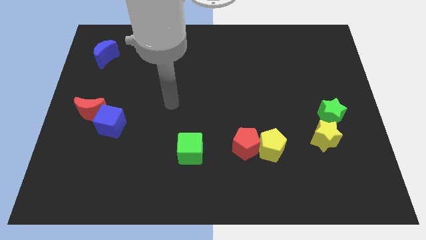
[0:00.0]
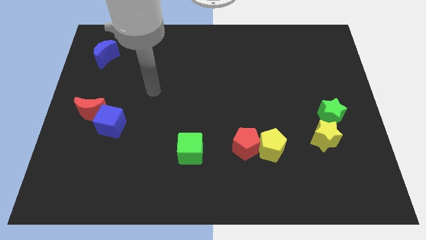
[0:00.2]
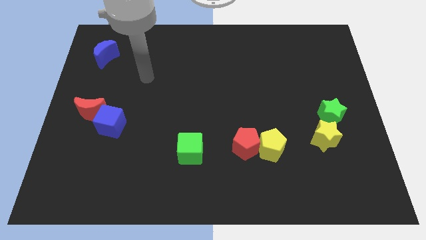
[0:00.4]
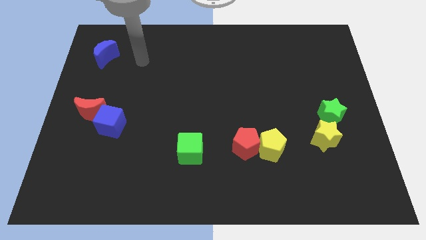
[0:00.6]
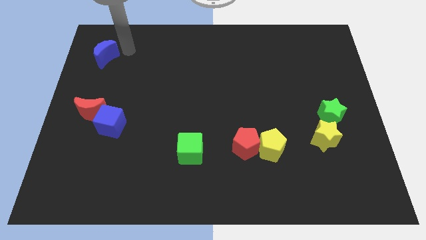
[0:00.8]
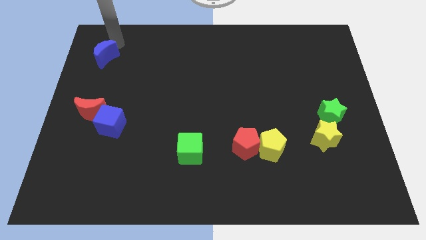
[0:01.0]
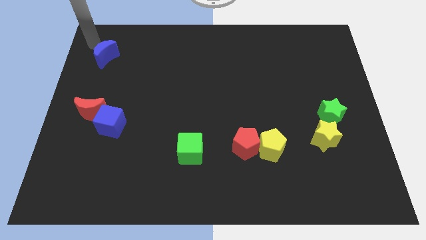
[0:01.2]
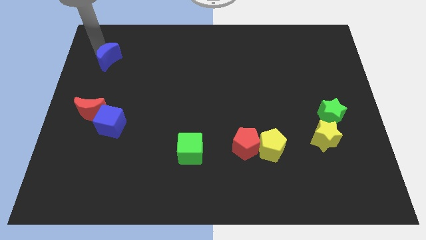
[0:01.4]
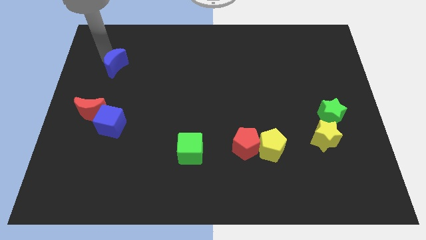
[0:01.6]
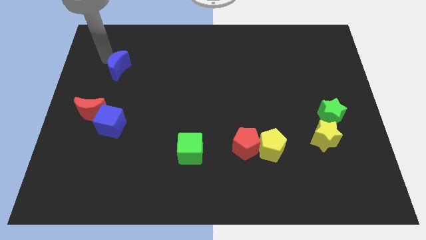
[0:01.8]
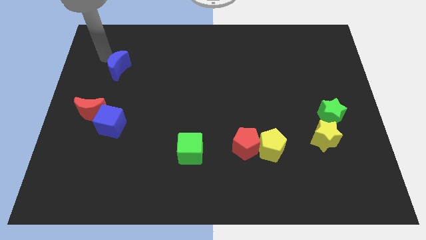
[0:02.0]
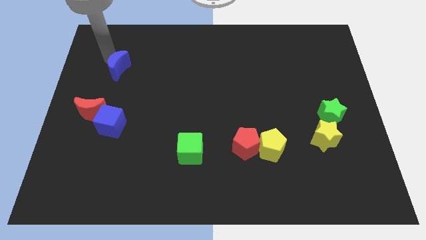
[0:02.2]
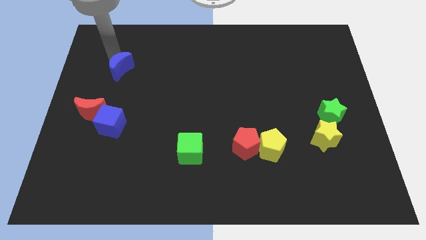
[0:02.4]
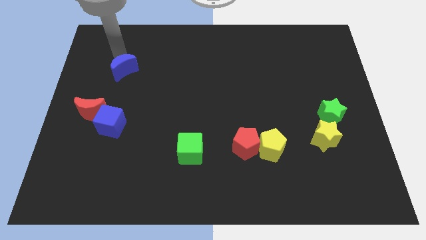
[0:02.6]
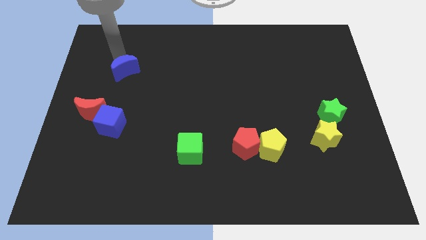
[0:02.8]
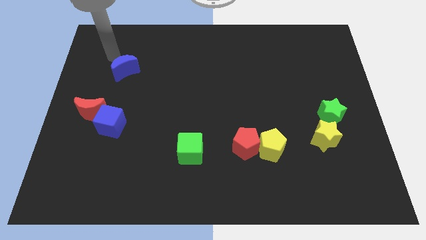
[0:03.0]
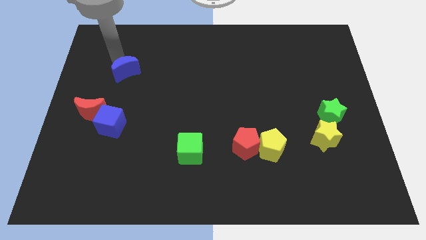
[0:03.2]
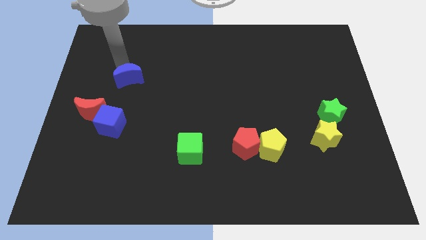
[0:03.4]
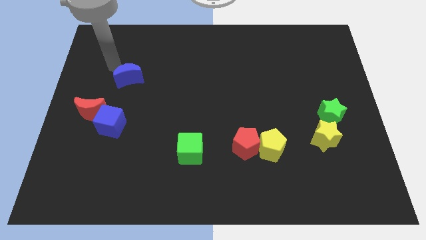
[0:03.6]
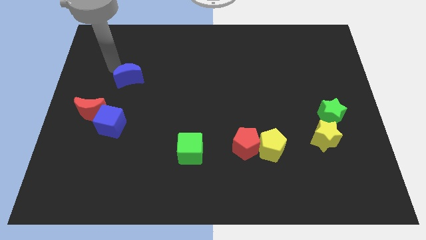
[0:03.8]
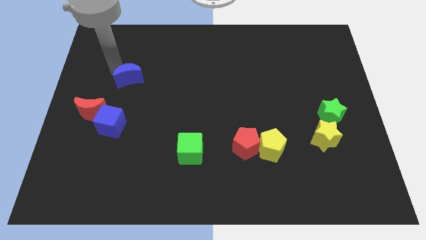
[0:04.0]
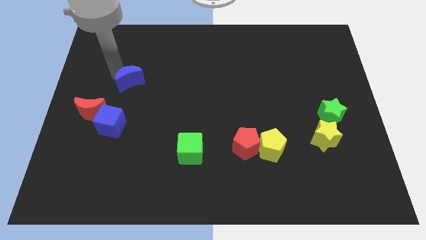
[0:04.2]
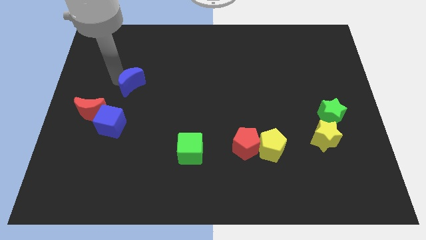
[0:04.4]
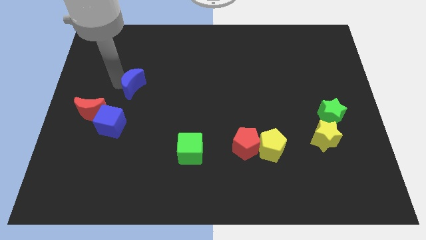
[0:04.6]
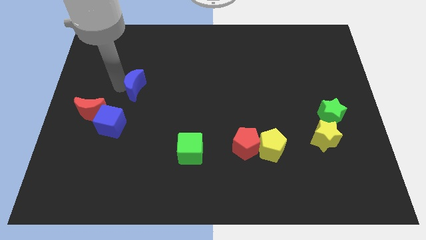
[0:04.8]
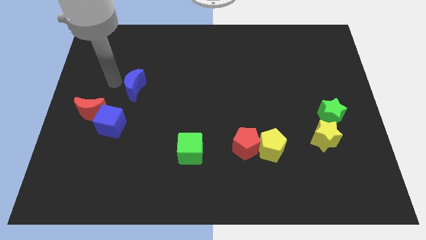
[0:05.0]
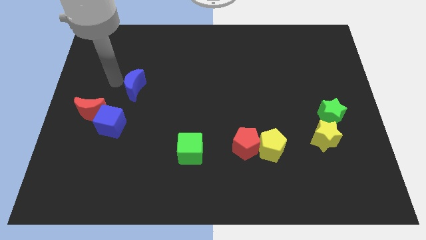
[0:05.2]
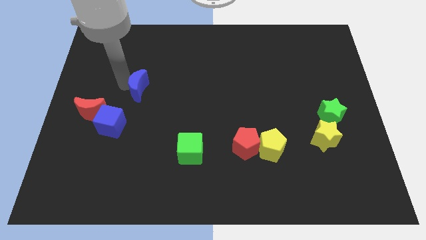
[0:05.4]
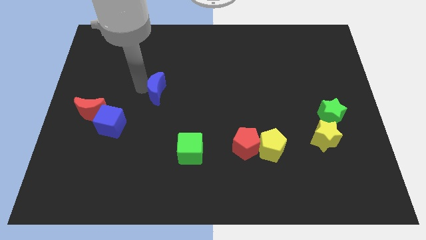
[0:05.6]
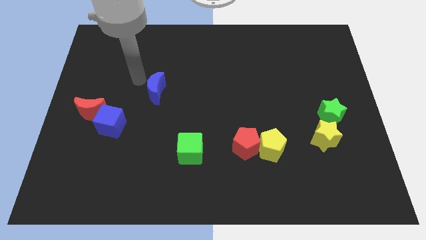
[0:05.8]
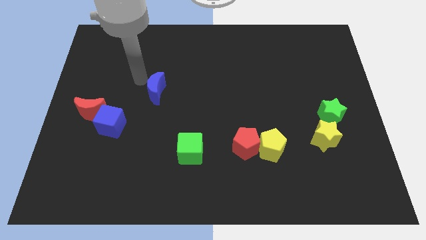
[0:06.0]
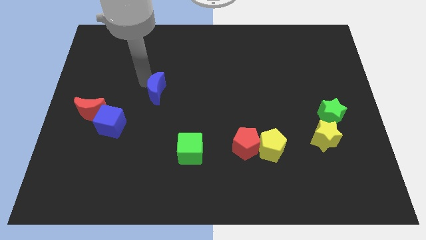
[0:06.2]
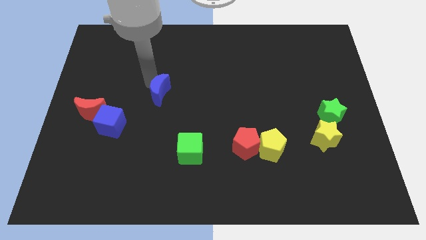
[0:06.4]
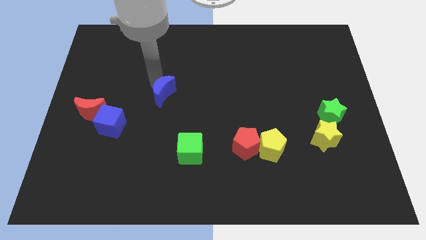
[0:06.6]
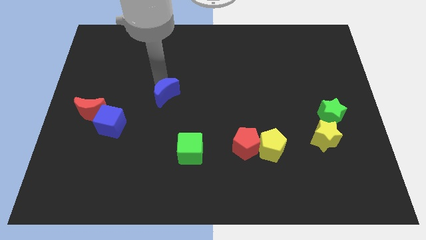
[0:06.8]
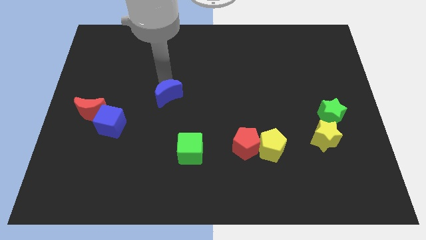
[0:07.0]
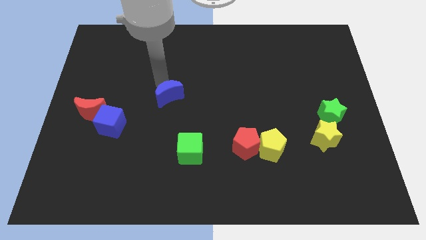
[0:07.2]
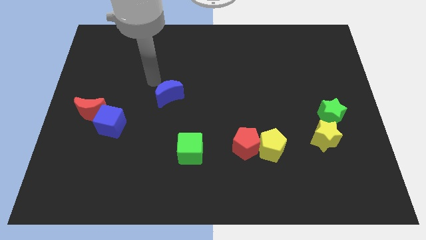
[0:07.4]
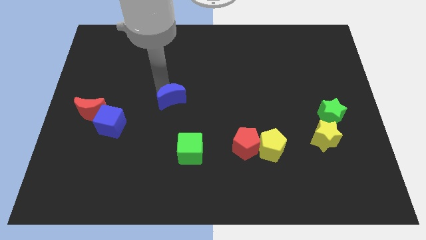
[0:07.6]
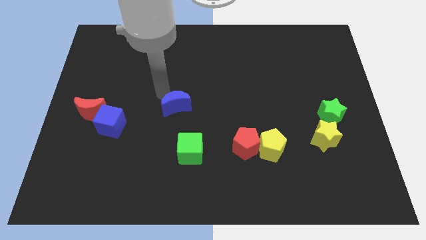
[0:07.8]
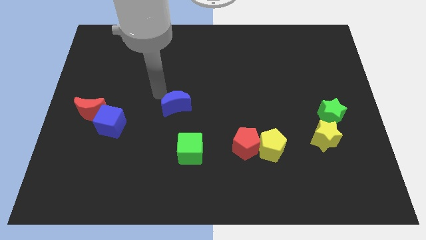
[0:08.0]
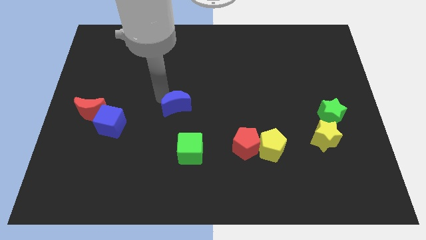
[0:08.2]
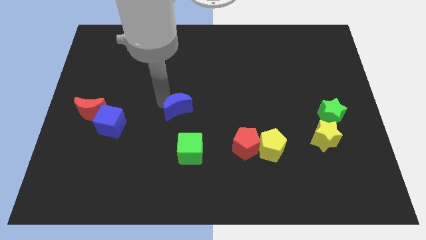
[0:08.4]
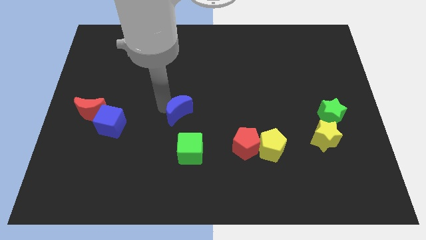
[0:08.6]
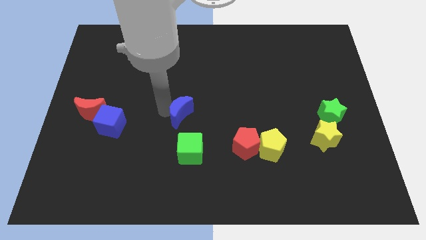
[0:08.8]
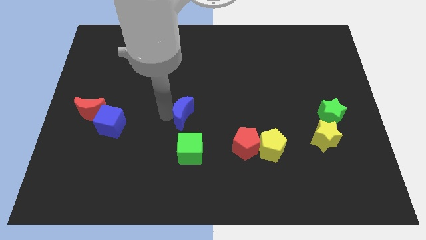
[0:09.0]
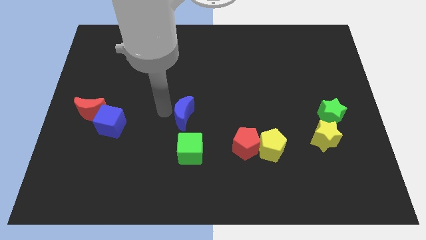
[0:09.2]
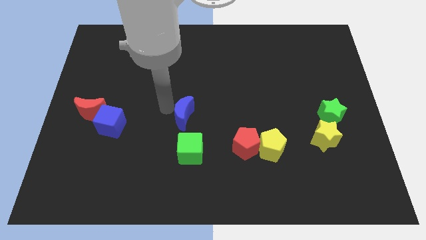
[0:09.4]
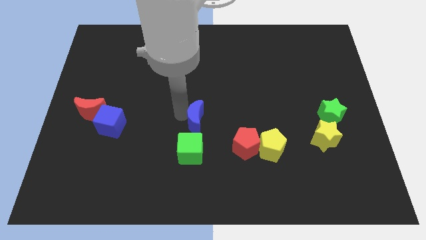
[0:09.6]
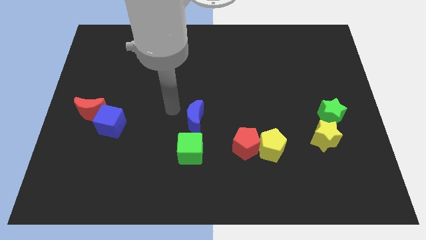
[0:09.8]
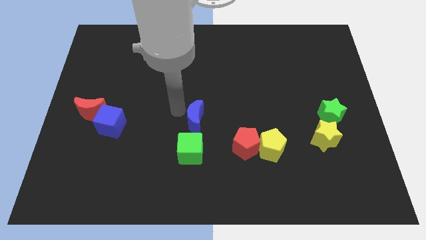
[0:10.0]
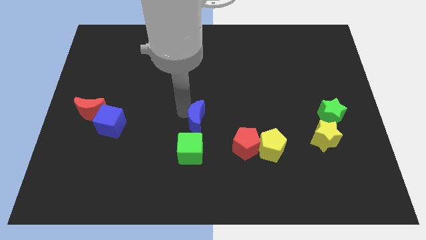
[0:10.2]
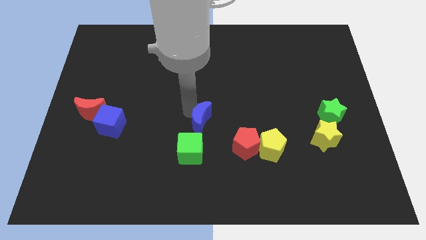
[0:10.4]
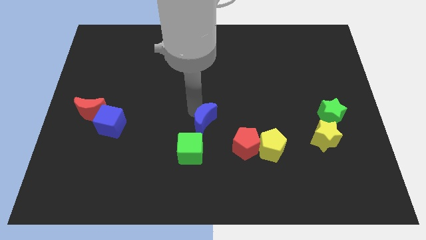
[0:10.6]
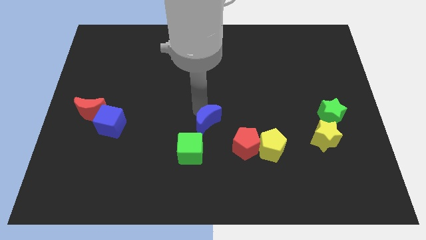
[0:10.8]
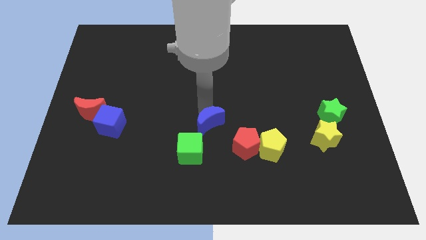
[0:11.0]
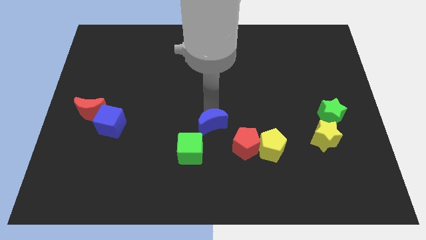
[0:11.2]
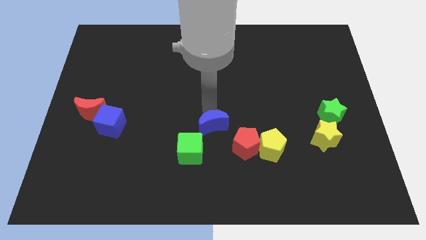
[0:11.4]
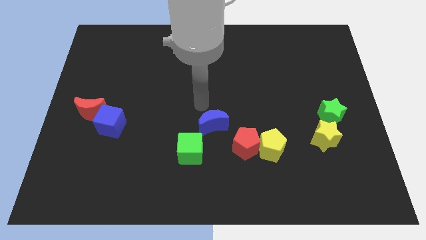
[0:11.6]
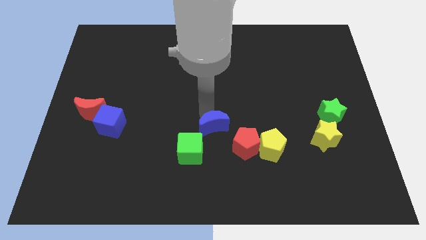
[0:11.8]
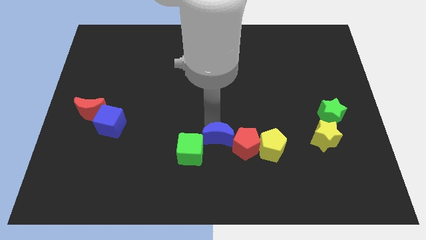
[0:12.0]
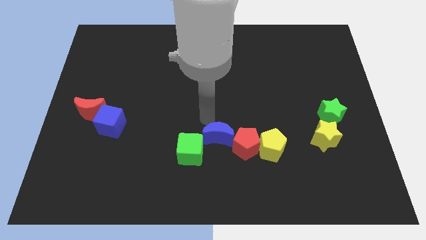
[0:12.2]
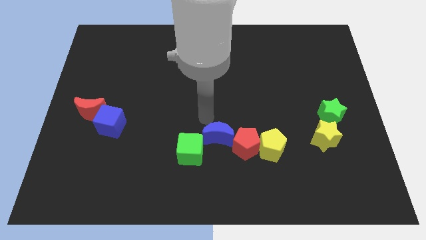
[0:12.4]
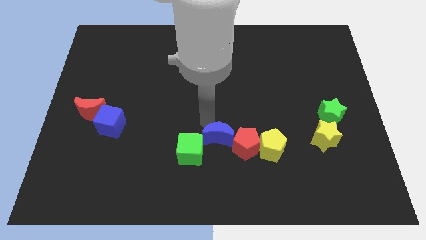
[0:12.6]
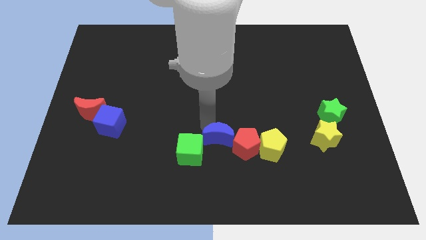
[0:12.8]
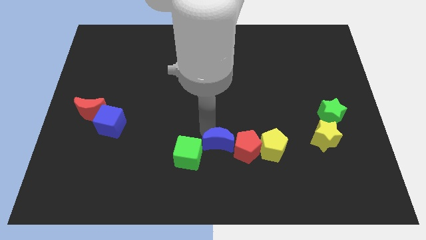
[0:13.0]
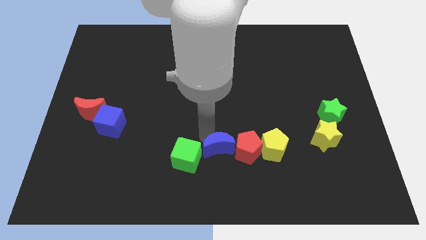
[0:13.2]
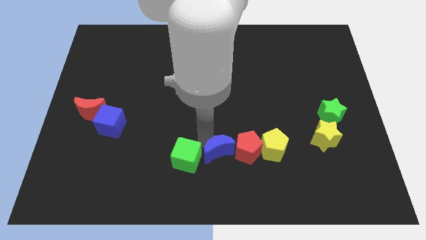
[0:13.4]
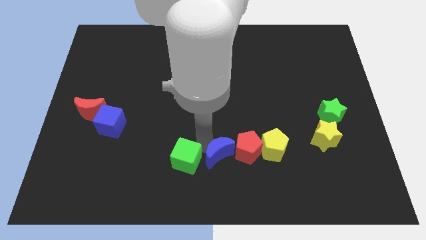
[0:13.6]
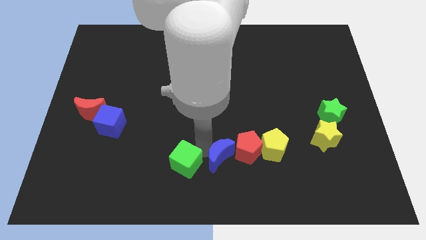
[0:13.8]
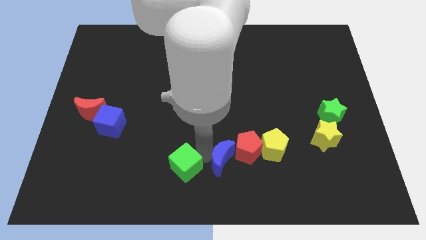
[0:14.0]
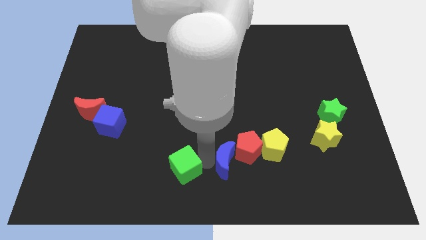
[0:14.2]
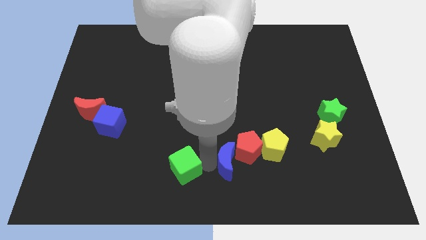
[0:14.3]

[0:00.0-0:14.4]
push the blue moon to the bottom left side of the yellow pentagon
